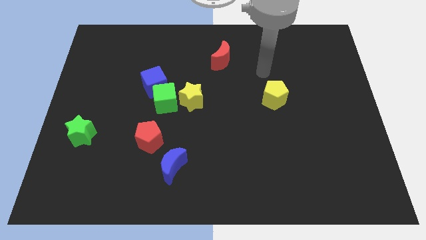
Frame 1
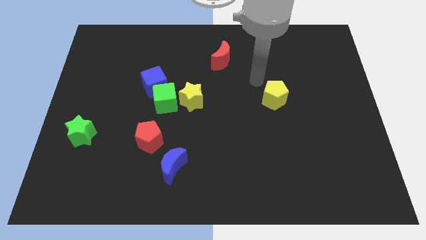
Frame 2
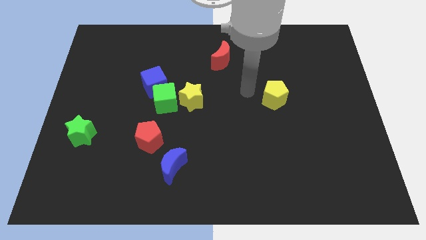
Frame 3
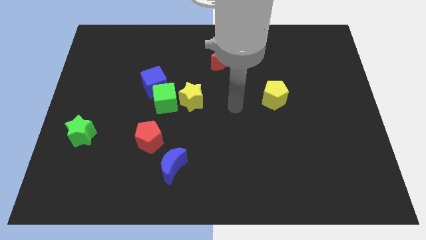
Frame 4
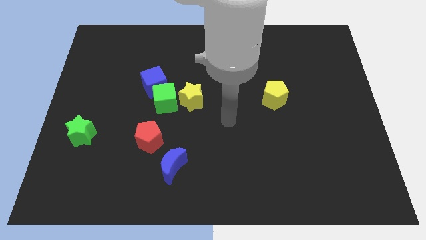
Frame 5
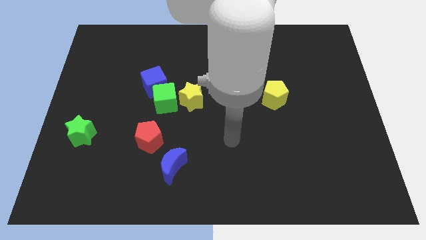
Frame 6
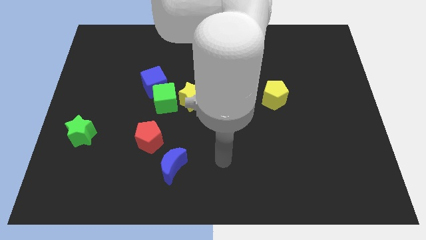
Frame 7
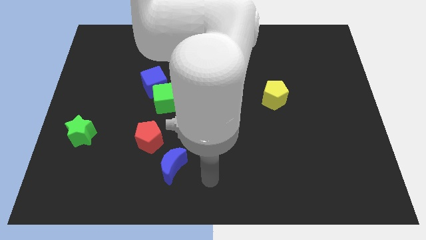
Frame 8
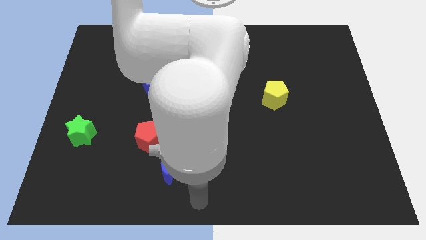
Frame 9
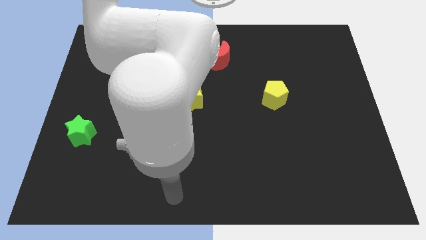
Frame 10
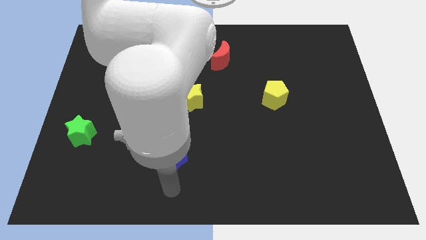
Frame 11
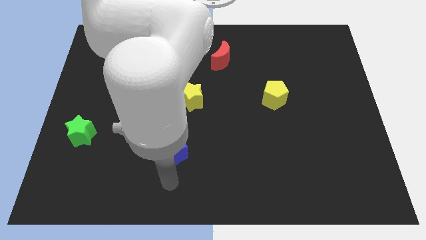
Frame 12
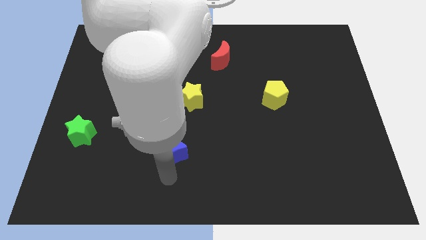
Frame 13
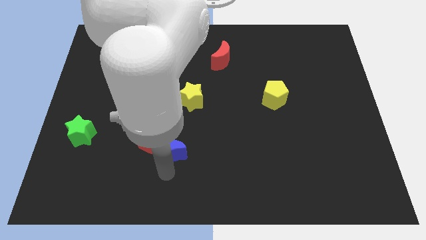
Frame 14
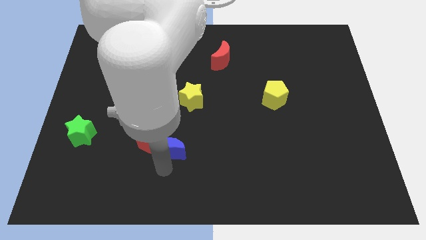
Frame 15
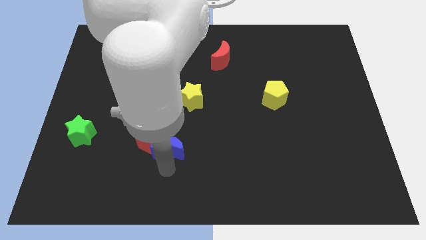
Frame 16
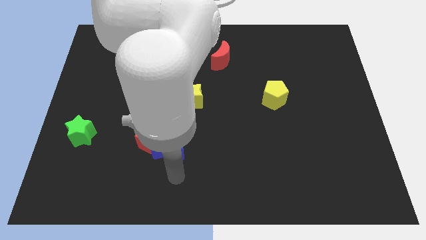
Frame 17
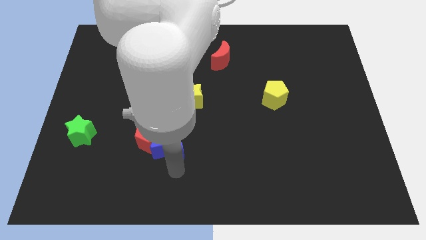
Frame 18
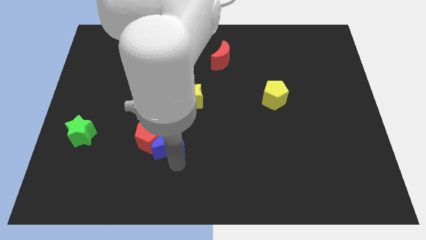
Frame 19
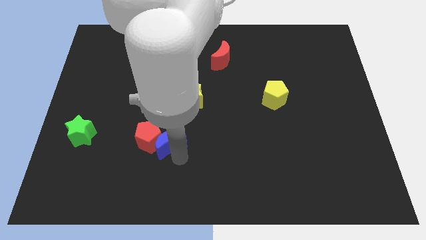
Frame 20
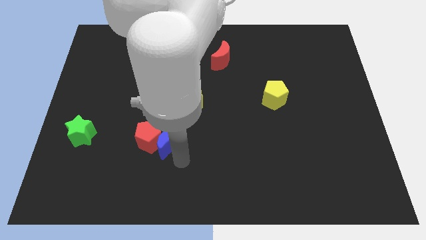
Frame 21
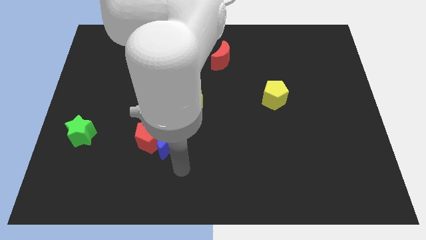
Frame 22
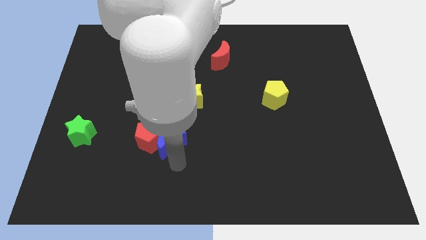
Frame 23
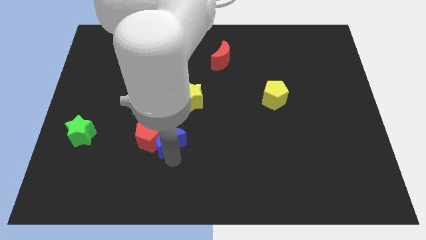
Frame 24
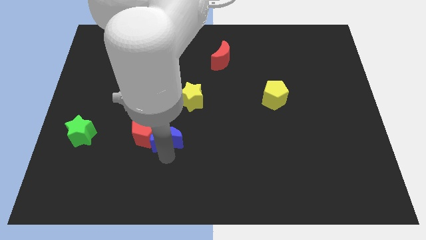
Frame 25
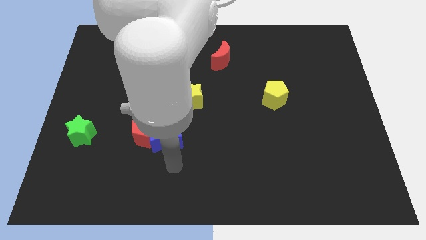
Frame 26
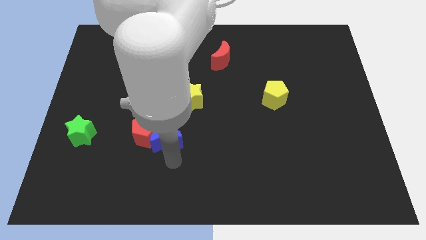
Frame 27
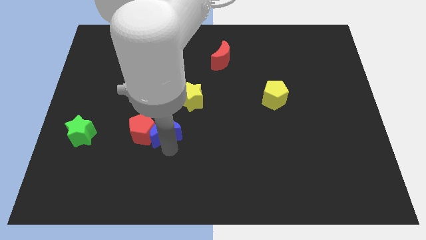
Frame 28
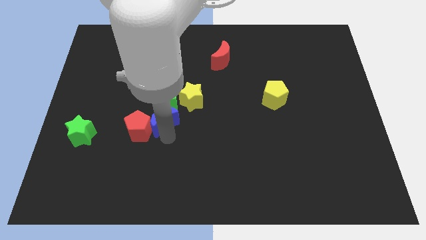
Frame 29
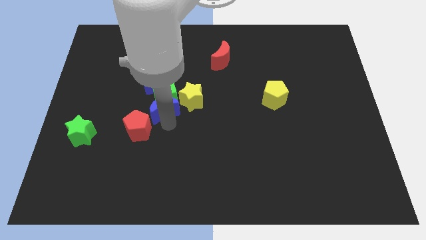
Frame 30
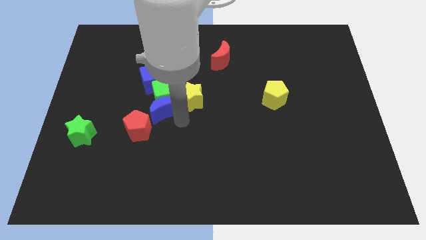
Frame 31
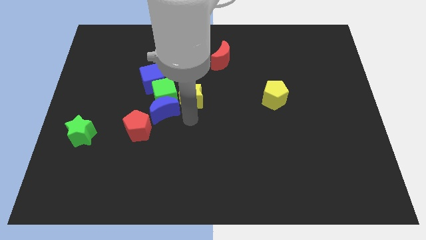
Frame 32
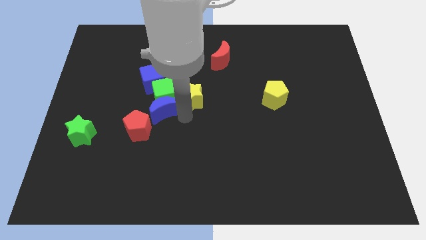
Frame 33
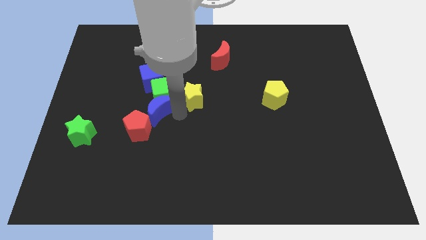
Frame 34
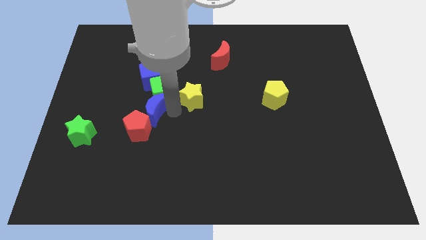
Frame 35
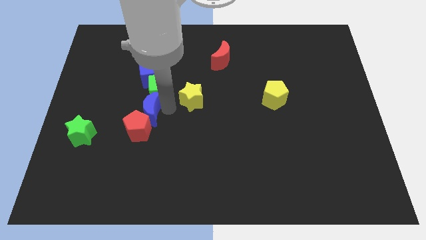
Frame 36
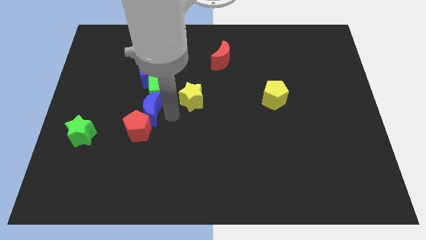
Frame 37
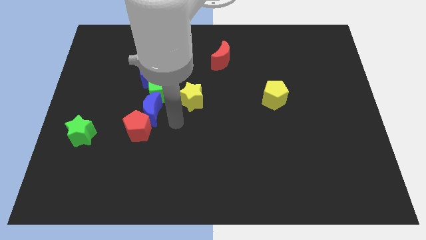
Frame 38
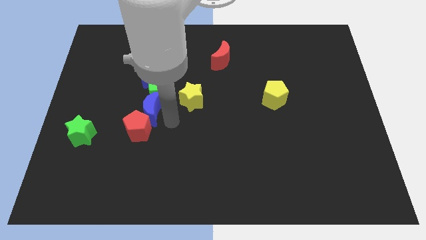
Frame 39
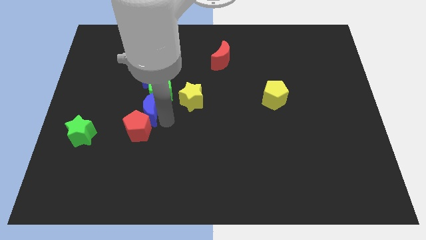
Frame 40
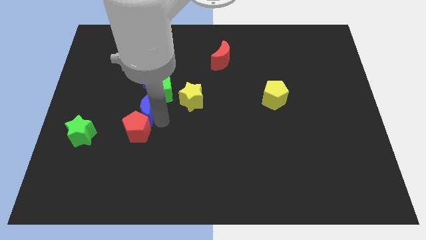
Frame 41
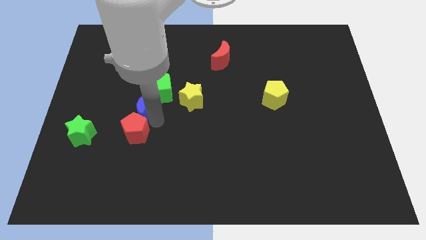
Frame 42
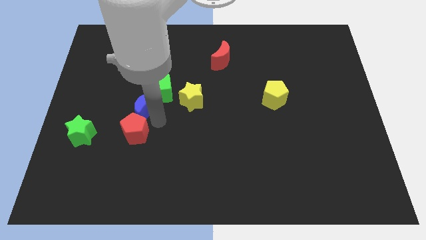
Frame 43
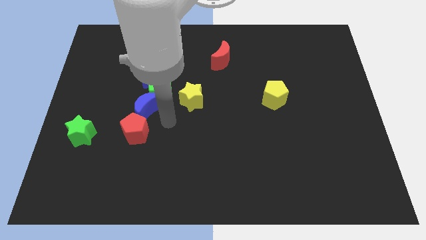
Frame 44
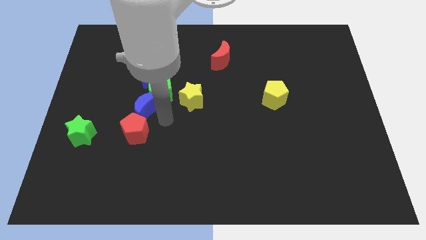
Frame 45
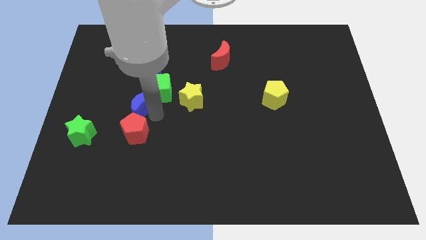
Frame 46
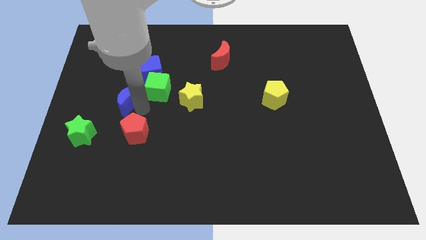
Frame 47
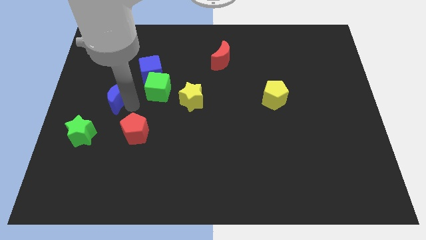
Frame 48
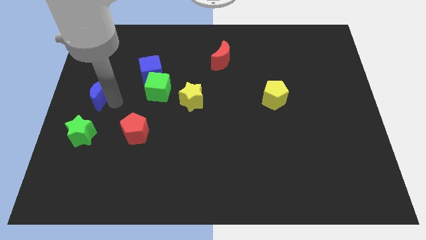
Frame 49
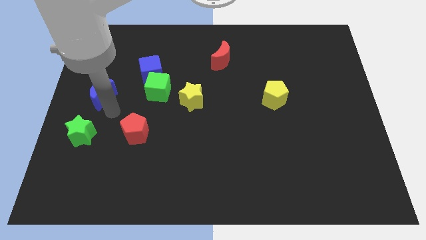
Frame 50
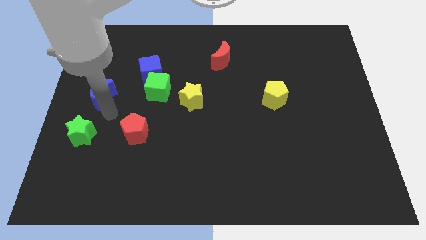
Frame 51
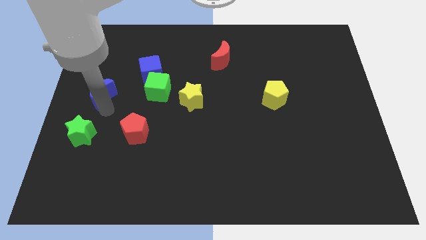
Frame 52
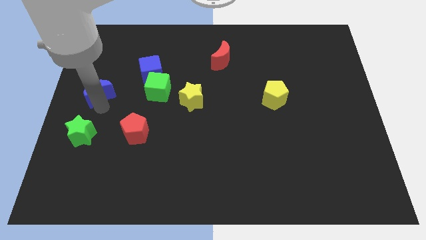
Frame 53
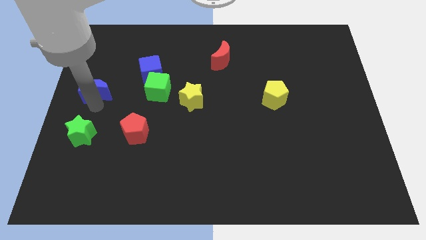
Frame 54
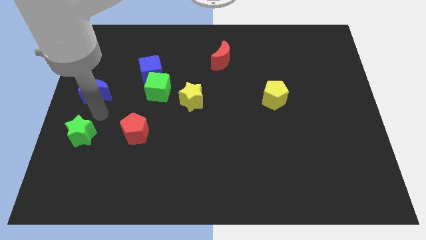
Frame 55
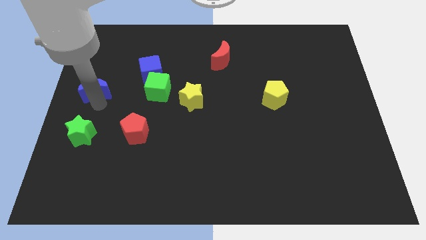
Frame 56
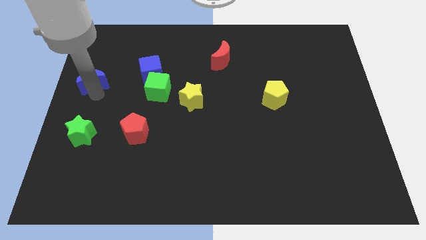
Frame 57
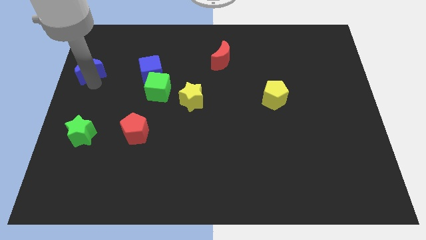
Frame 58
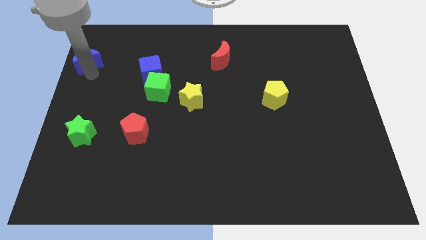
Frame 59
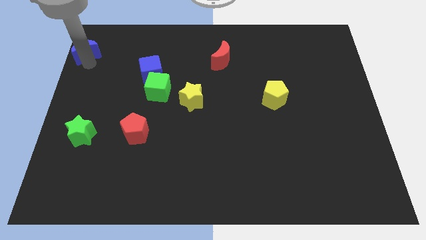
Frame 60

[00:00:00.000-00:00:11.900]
slide the blue moon to the top left corner

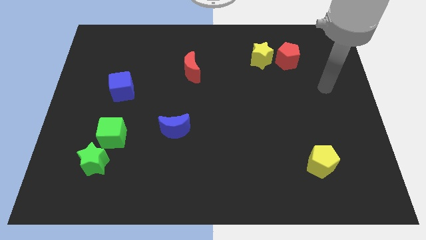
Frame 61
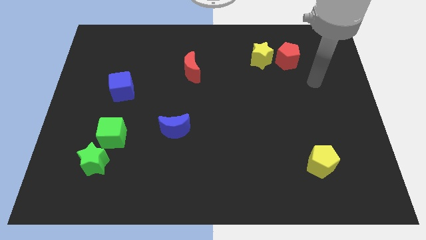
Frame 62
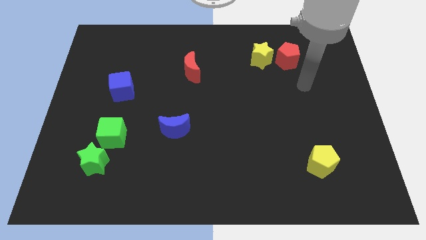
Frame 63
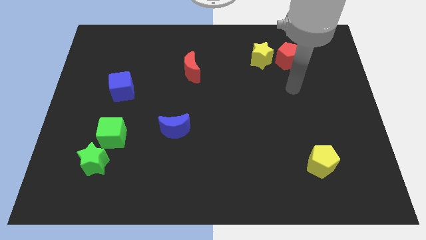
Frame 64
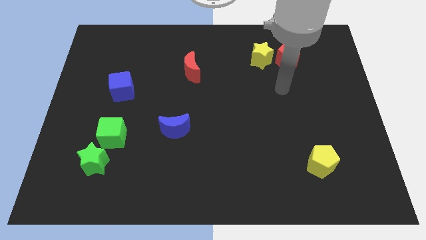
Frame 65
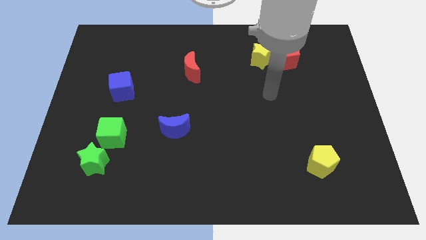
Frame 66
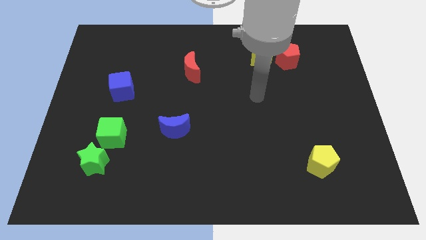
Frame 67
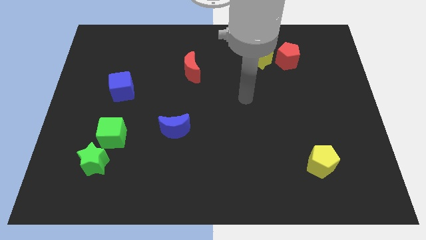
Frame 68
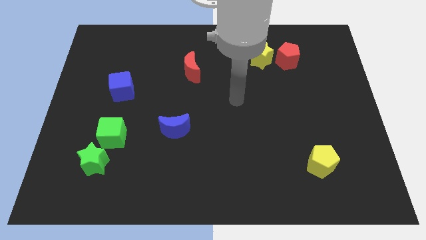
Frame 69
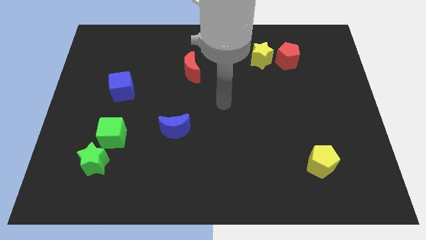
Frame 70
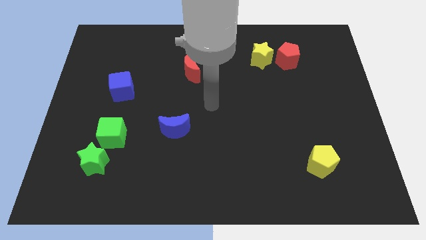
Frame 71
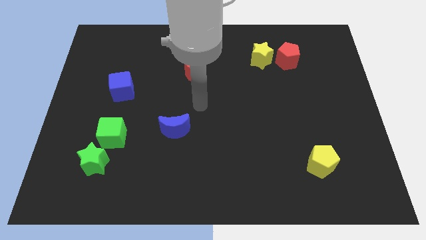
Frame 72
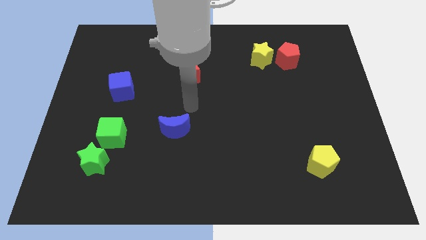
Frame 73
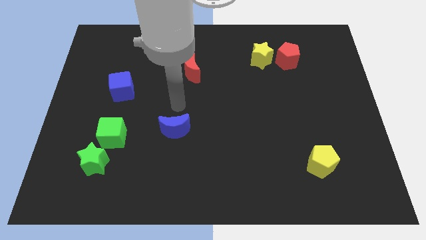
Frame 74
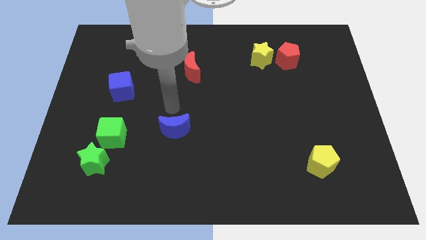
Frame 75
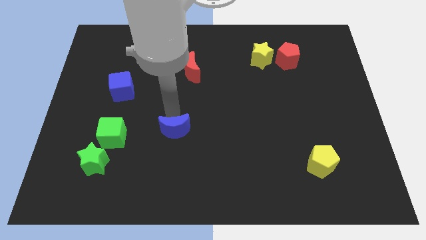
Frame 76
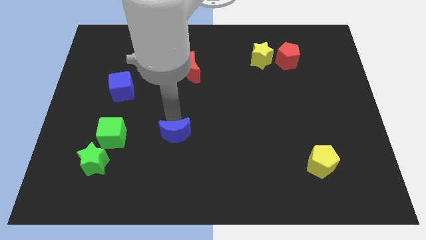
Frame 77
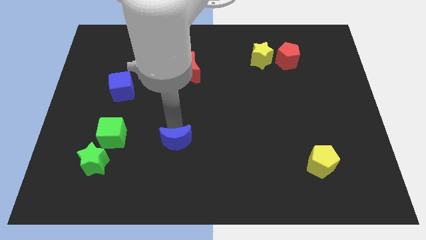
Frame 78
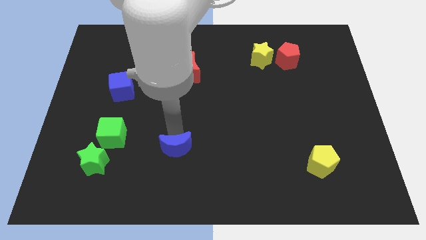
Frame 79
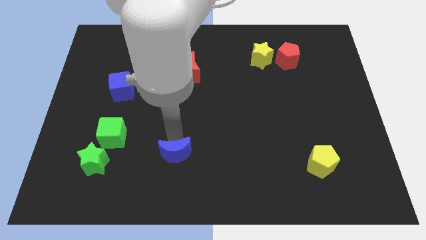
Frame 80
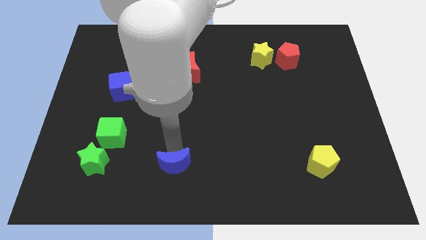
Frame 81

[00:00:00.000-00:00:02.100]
move the blue moon to the bottom
